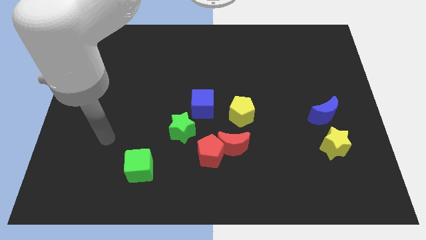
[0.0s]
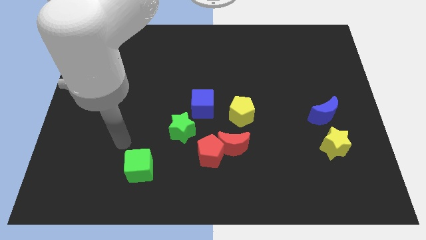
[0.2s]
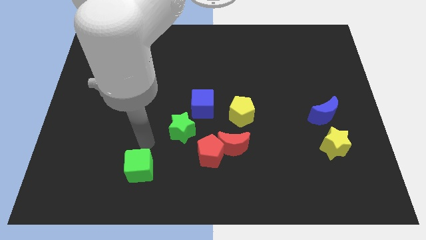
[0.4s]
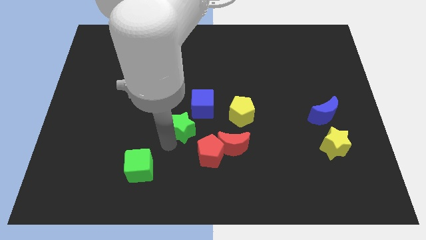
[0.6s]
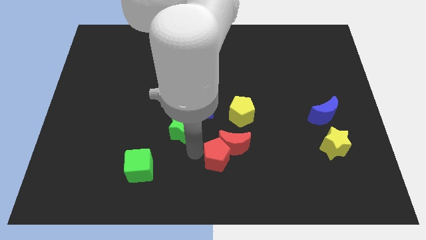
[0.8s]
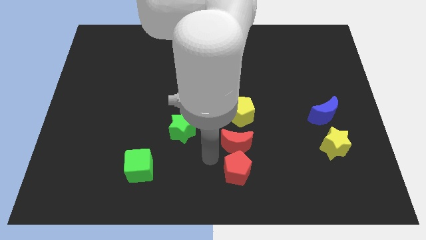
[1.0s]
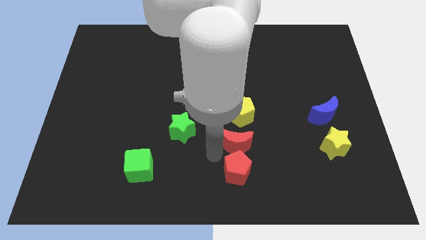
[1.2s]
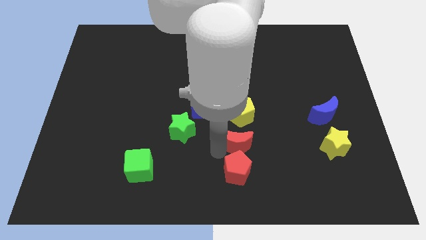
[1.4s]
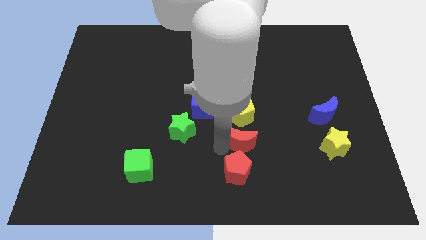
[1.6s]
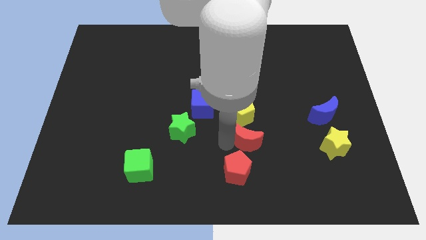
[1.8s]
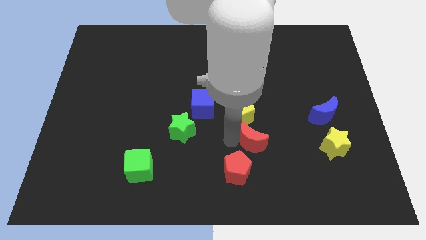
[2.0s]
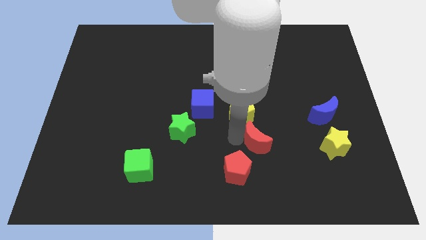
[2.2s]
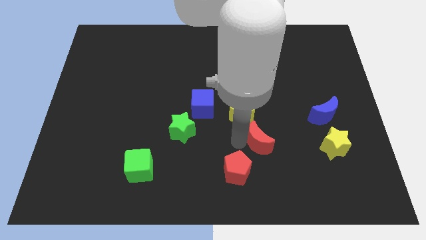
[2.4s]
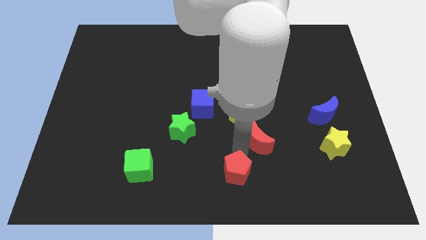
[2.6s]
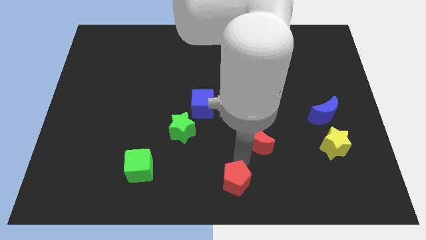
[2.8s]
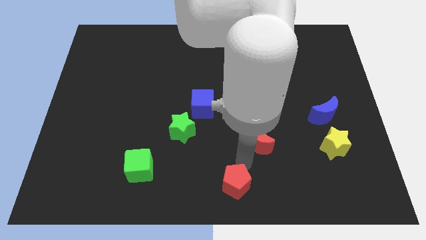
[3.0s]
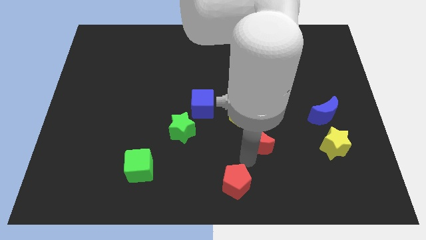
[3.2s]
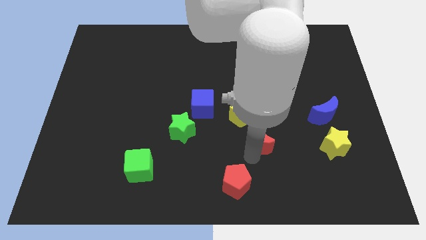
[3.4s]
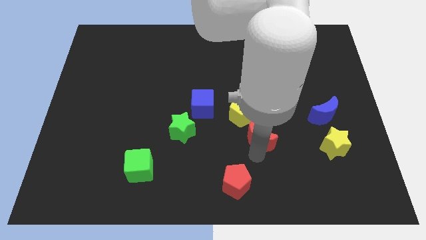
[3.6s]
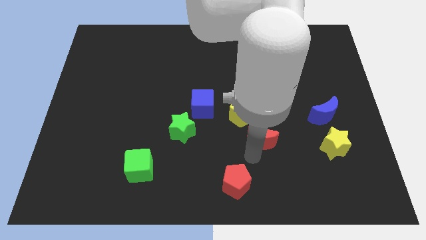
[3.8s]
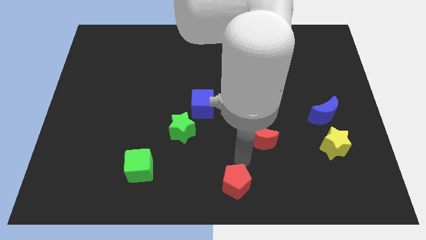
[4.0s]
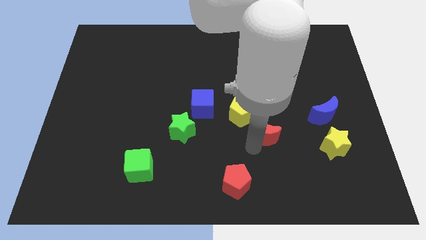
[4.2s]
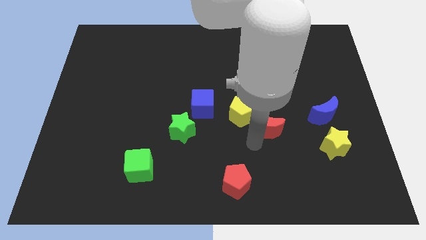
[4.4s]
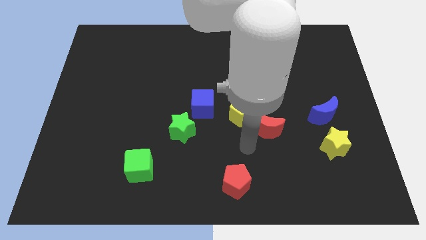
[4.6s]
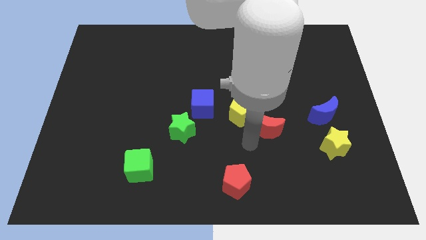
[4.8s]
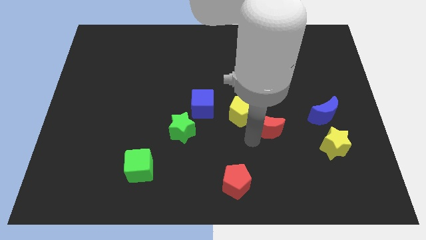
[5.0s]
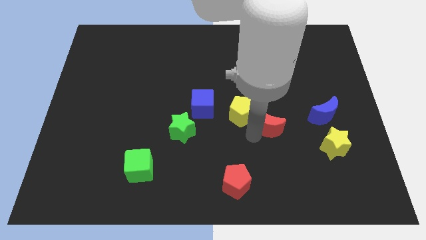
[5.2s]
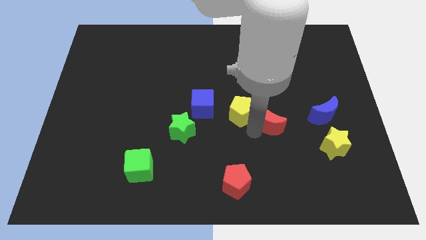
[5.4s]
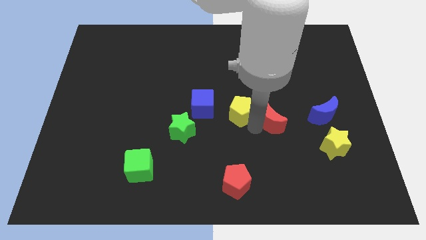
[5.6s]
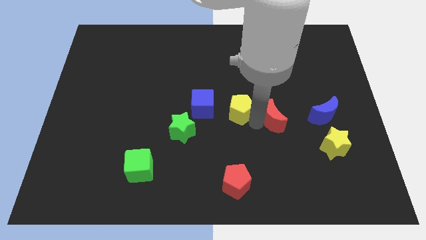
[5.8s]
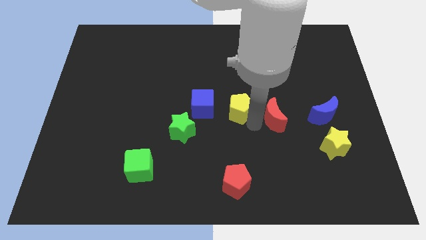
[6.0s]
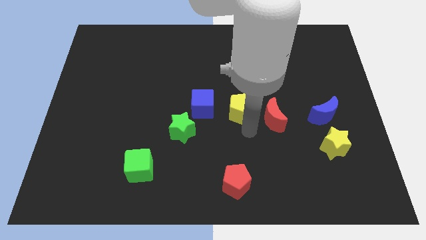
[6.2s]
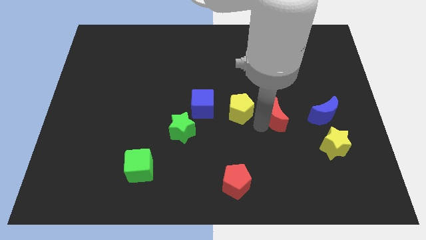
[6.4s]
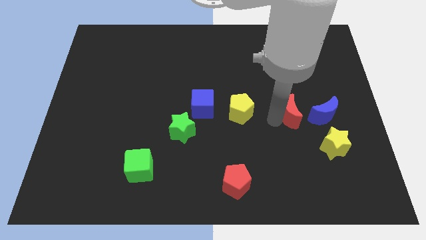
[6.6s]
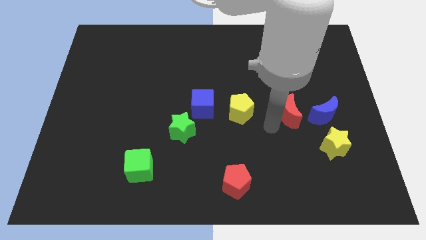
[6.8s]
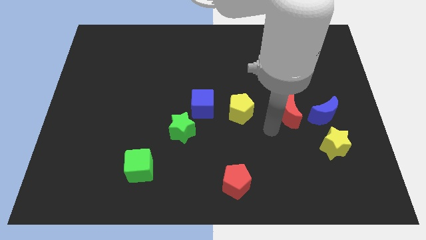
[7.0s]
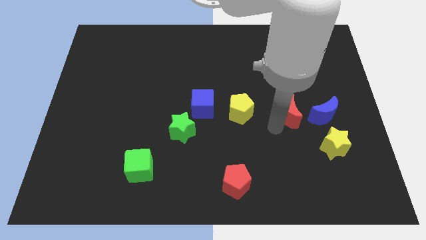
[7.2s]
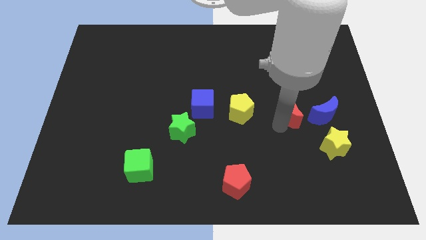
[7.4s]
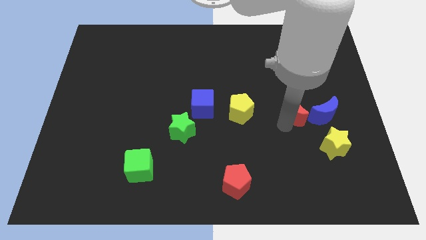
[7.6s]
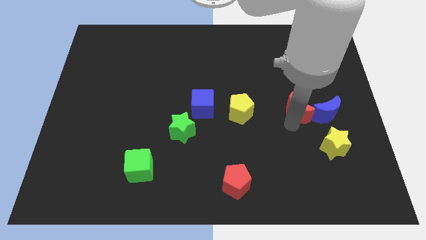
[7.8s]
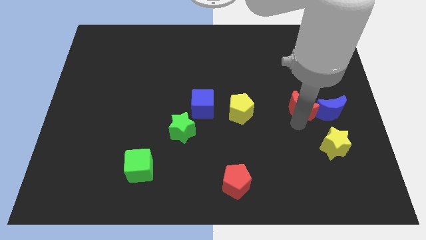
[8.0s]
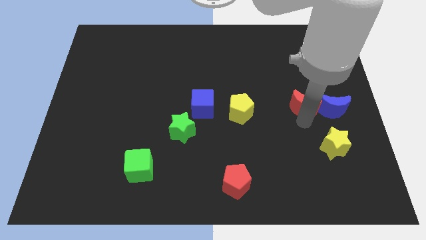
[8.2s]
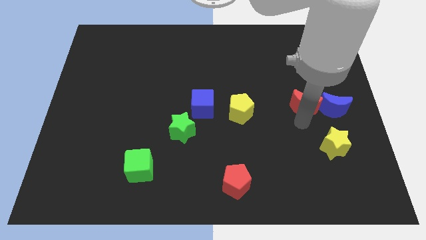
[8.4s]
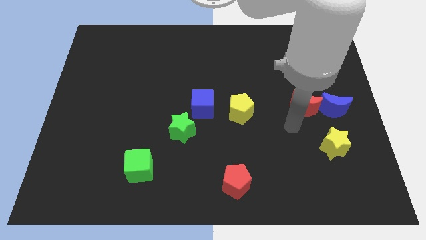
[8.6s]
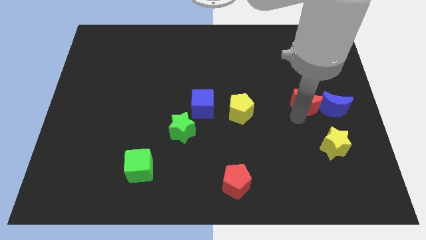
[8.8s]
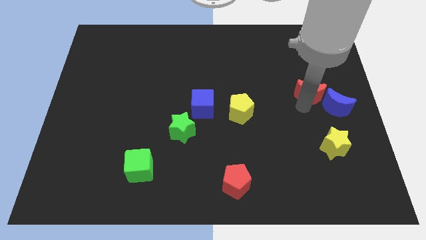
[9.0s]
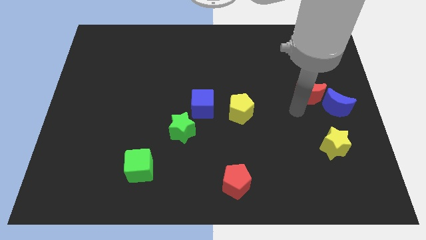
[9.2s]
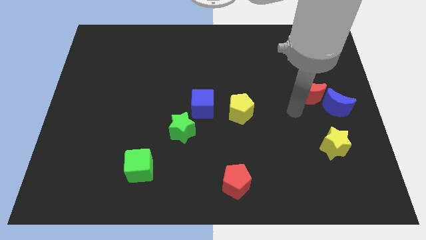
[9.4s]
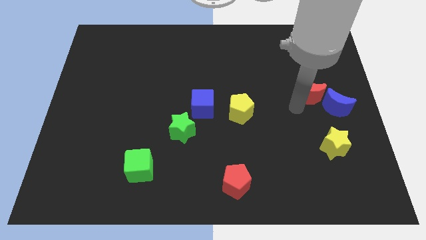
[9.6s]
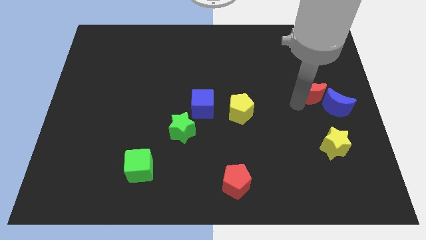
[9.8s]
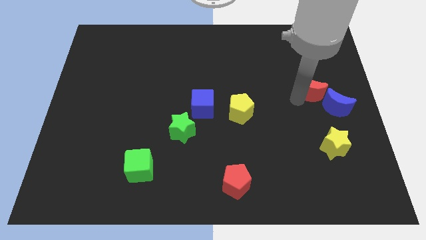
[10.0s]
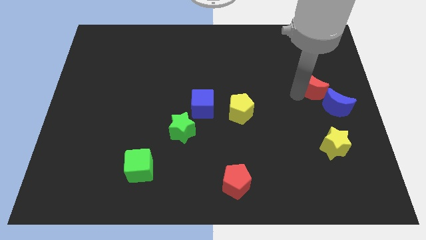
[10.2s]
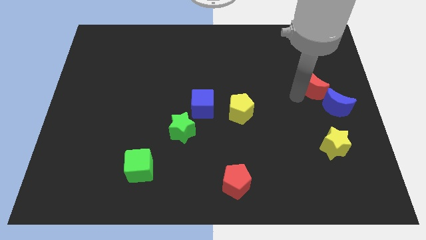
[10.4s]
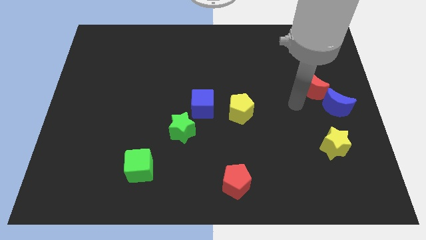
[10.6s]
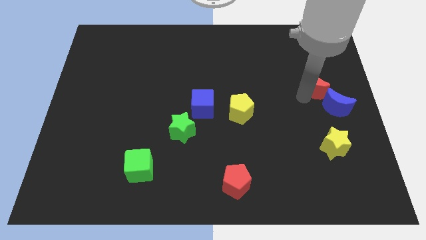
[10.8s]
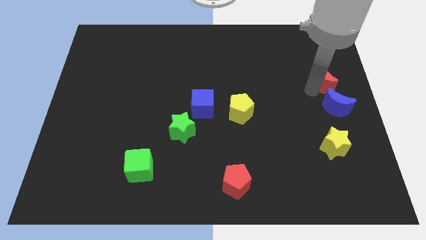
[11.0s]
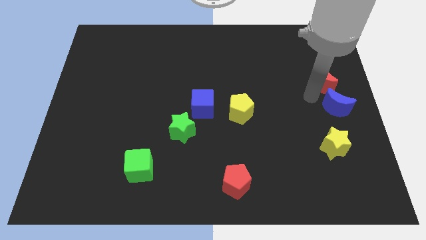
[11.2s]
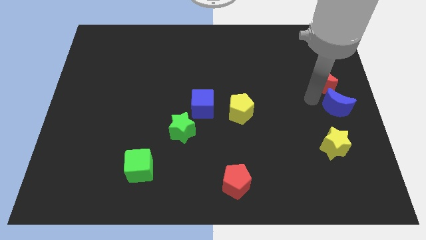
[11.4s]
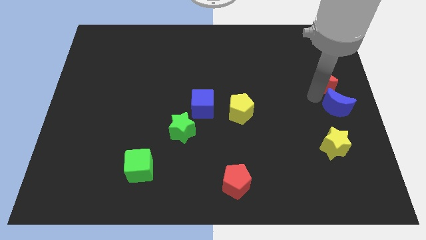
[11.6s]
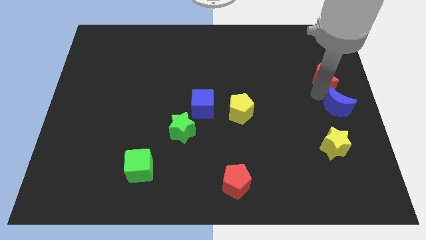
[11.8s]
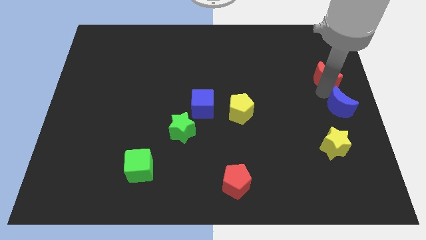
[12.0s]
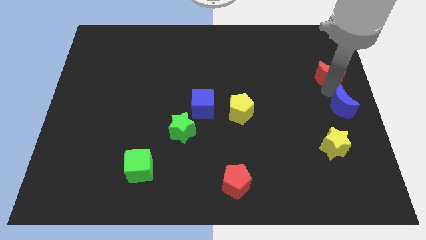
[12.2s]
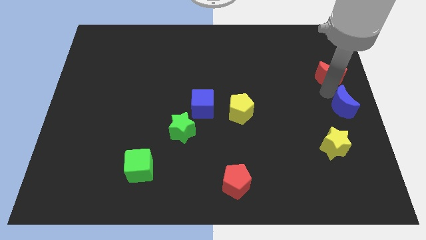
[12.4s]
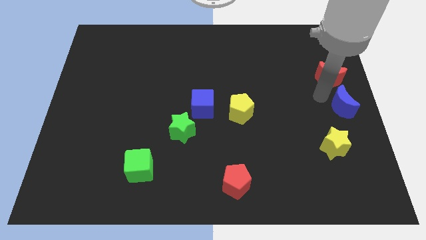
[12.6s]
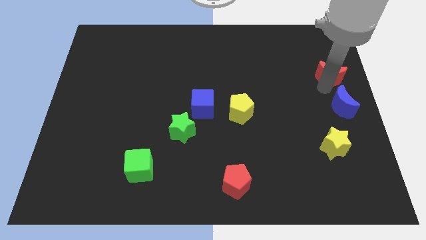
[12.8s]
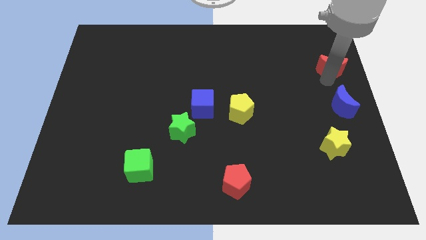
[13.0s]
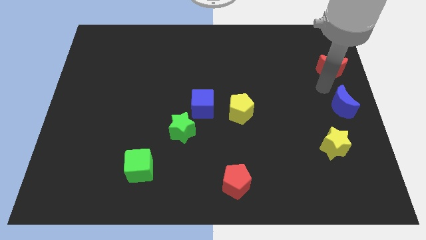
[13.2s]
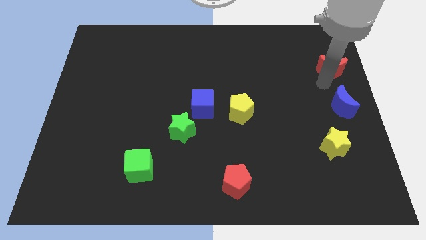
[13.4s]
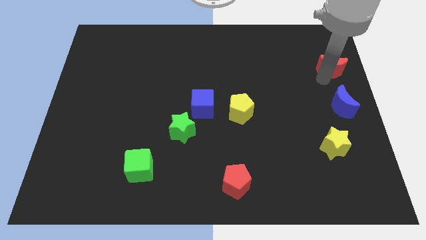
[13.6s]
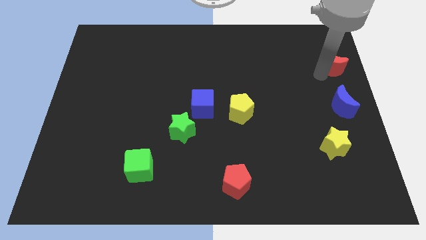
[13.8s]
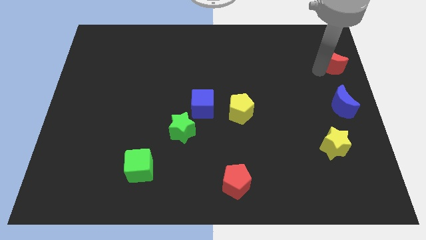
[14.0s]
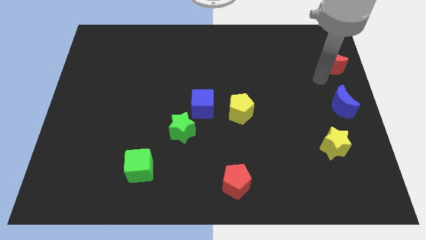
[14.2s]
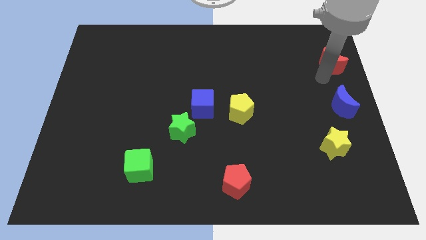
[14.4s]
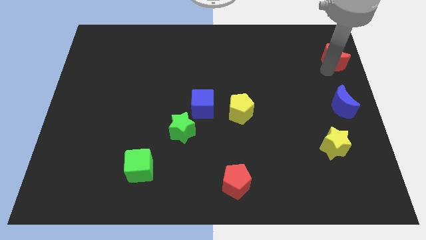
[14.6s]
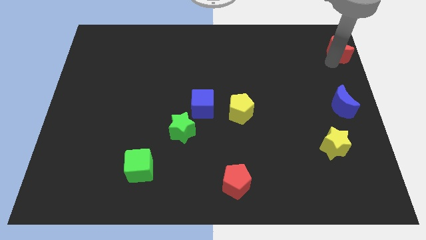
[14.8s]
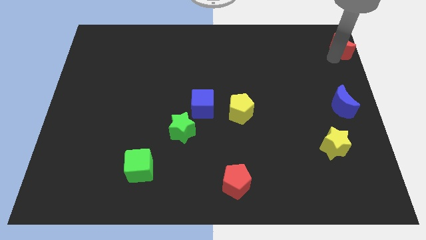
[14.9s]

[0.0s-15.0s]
move the red moon to the upper right corner
